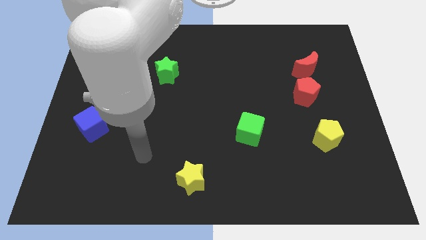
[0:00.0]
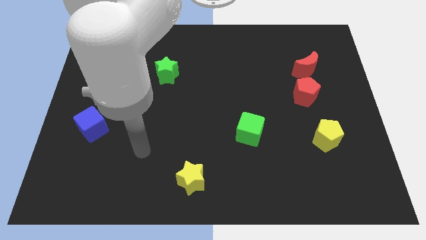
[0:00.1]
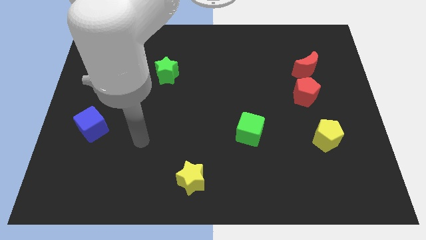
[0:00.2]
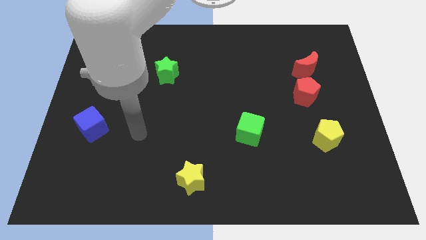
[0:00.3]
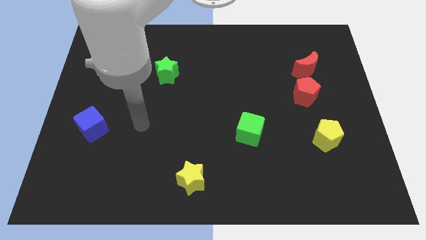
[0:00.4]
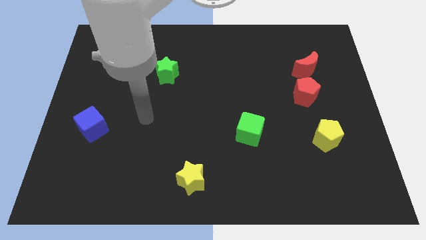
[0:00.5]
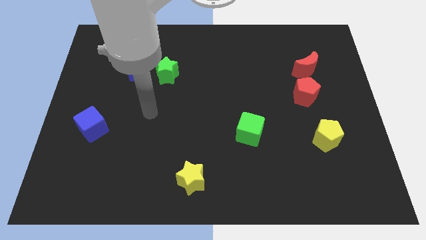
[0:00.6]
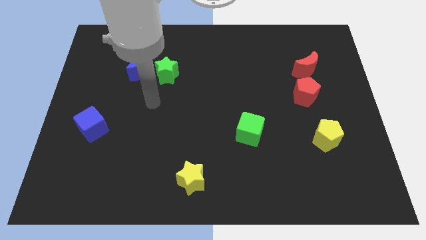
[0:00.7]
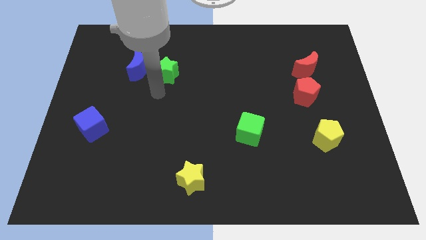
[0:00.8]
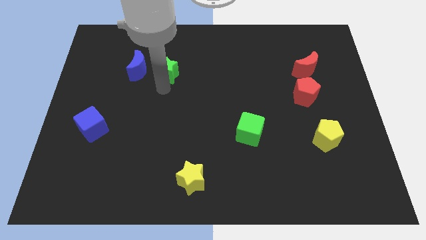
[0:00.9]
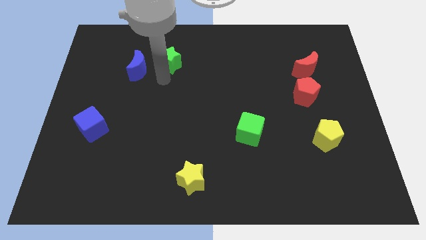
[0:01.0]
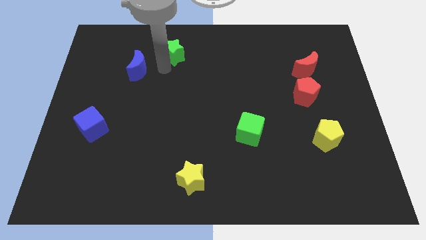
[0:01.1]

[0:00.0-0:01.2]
separate the blue moon from the green star

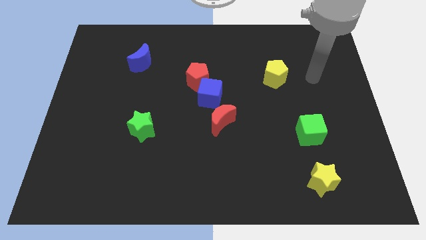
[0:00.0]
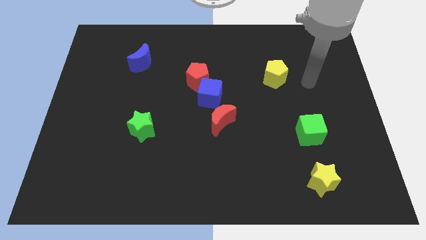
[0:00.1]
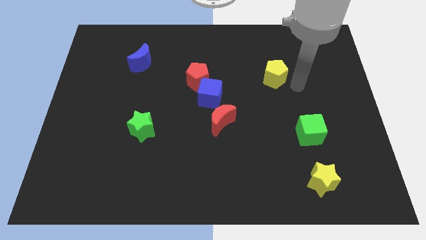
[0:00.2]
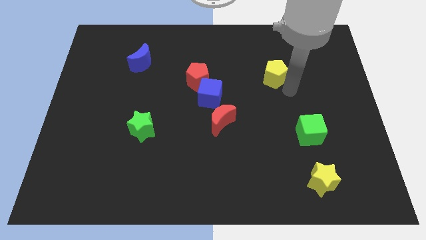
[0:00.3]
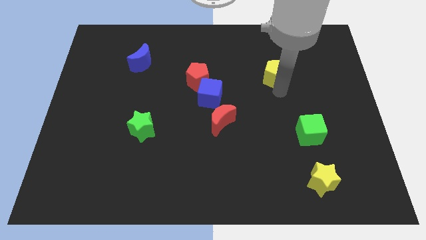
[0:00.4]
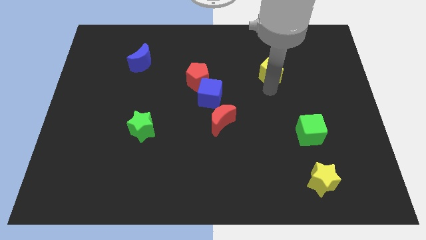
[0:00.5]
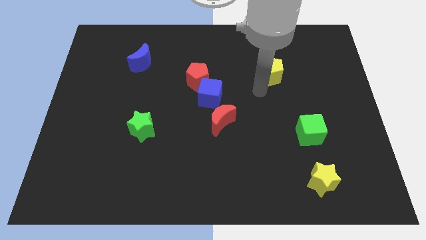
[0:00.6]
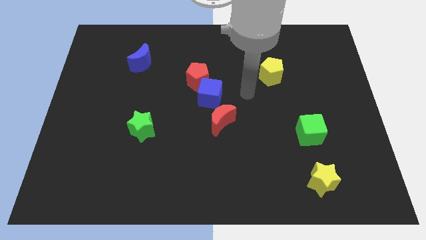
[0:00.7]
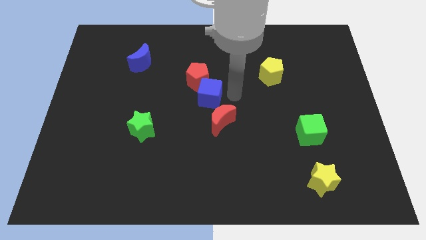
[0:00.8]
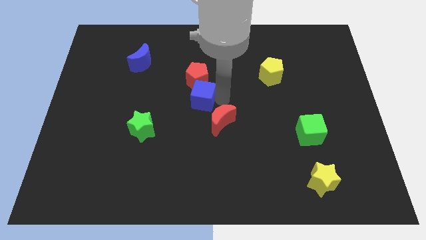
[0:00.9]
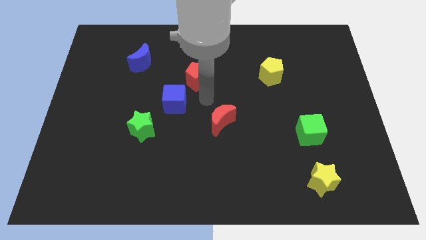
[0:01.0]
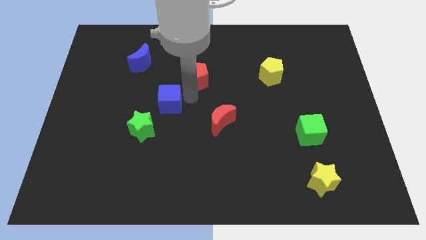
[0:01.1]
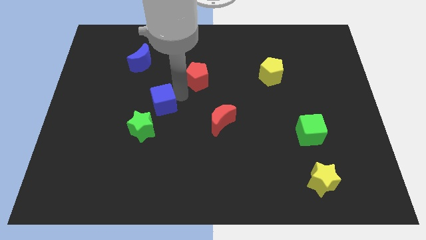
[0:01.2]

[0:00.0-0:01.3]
move the red pentagon away from the blue cube

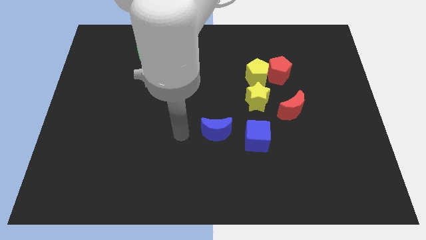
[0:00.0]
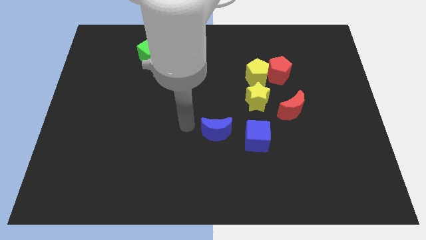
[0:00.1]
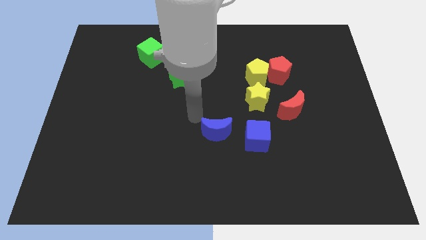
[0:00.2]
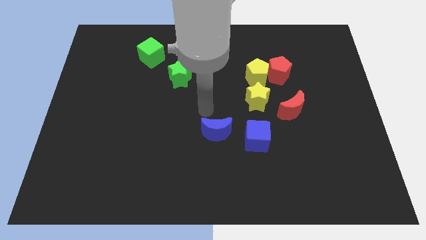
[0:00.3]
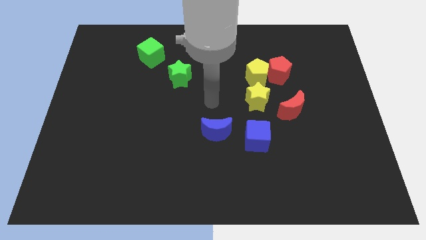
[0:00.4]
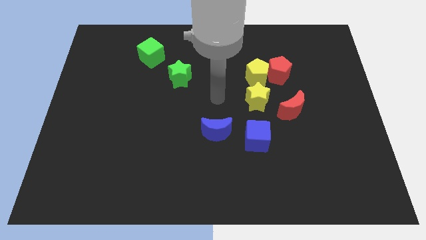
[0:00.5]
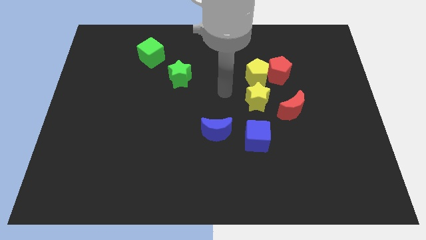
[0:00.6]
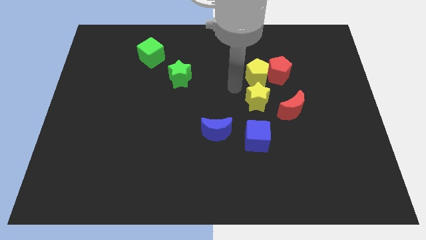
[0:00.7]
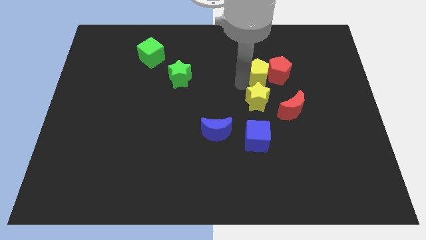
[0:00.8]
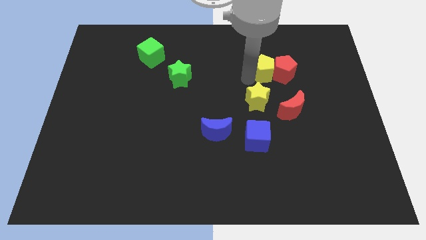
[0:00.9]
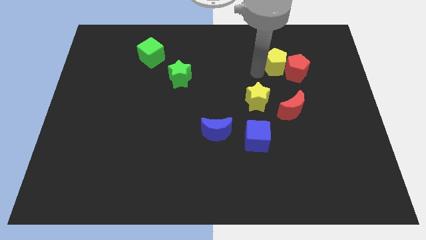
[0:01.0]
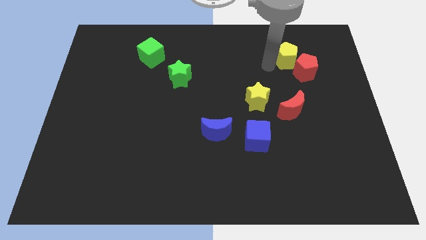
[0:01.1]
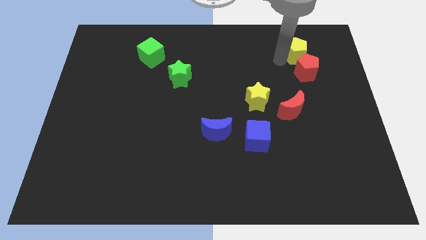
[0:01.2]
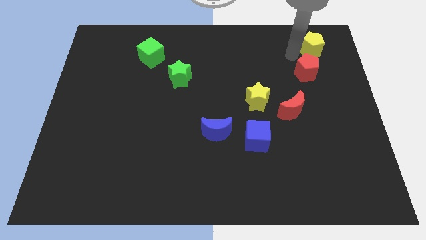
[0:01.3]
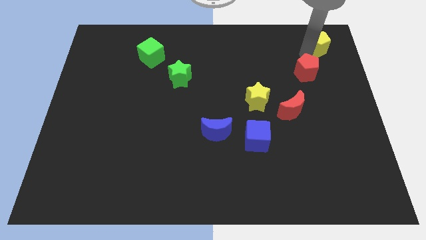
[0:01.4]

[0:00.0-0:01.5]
separate the red pentagon from the yellow pentagon

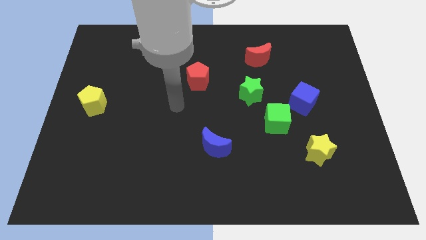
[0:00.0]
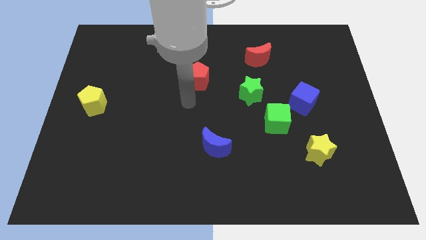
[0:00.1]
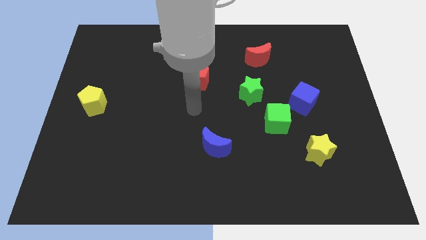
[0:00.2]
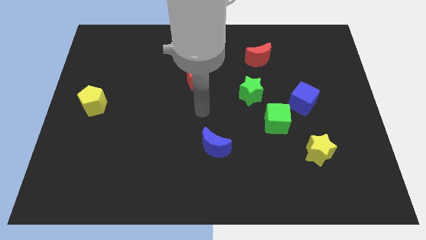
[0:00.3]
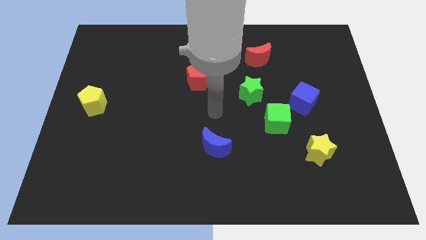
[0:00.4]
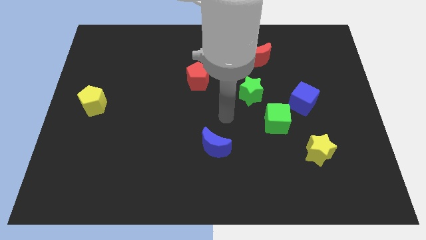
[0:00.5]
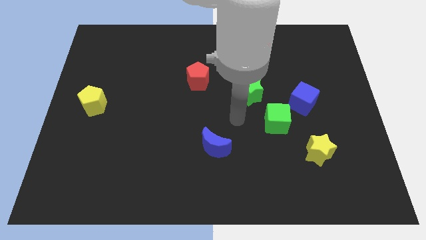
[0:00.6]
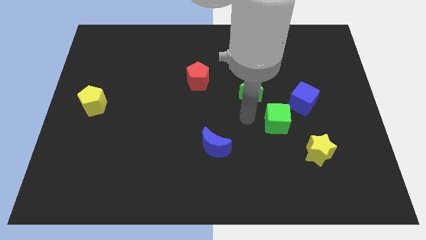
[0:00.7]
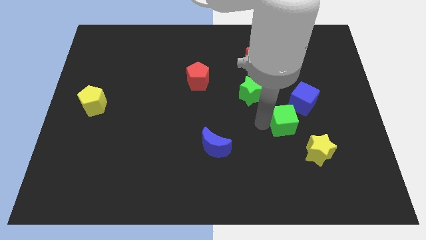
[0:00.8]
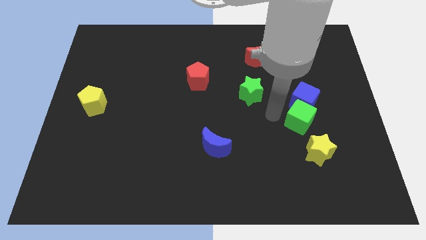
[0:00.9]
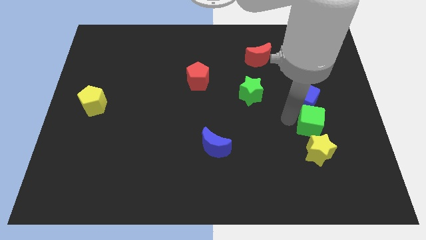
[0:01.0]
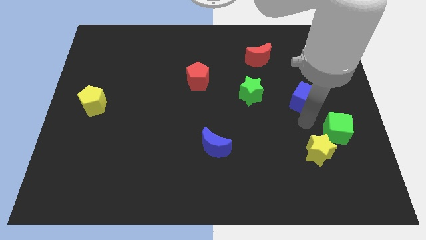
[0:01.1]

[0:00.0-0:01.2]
pull the blue cube apart from the green cube

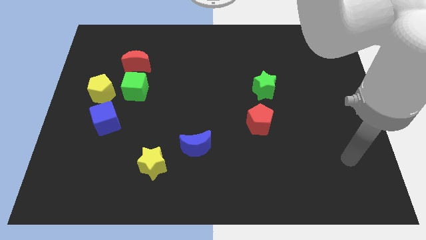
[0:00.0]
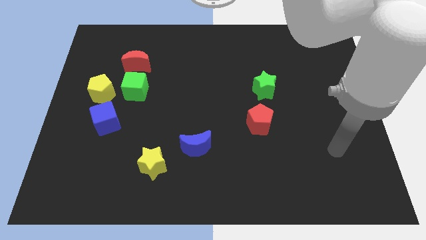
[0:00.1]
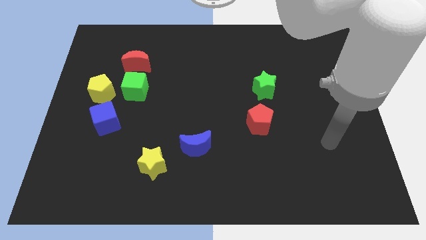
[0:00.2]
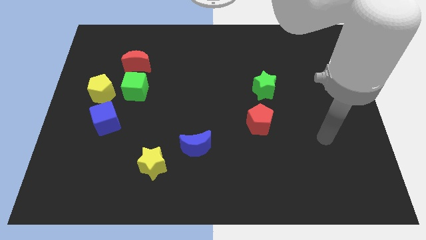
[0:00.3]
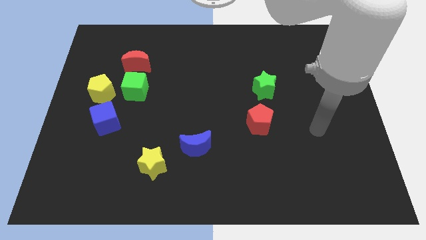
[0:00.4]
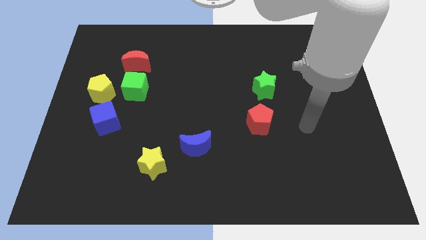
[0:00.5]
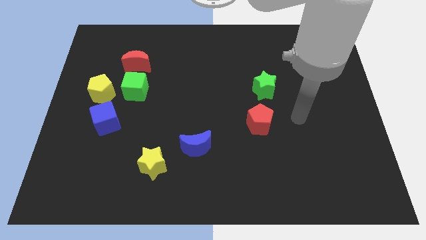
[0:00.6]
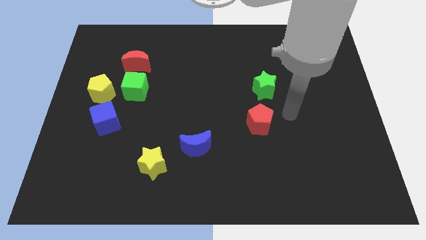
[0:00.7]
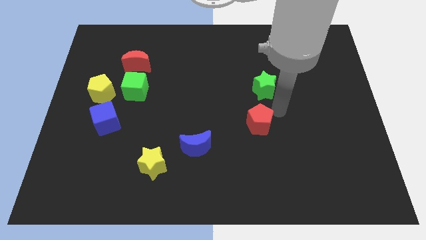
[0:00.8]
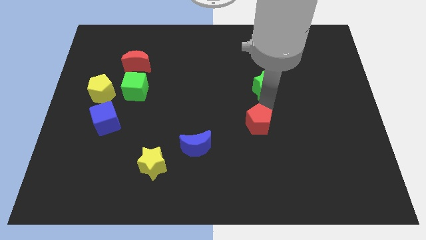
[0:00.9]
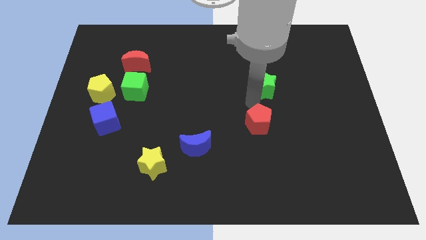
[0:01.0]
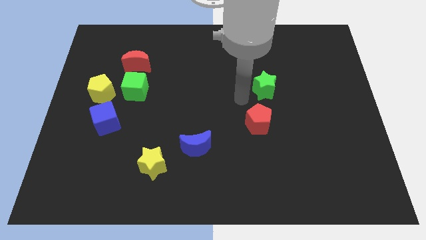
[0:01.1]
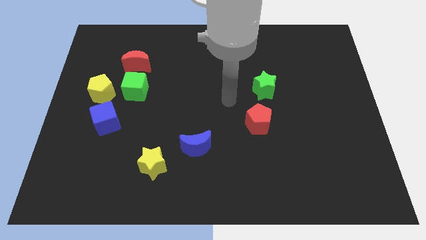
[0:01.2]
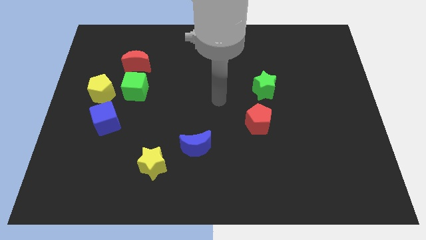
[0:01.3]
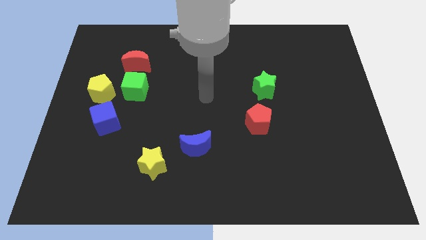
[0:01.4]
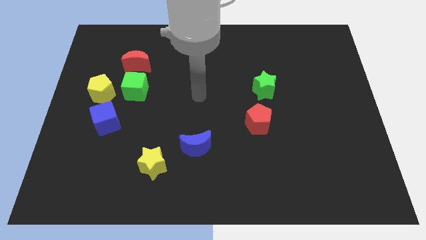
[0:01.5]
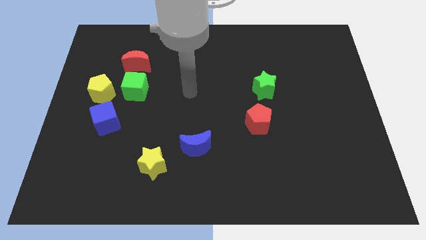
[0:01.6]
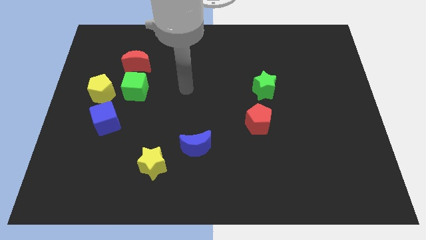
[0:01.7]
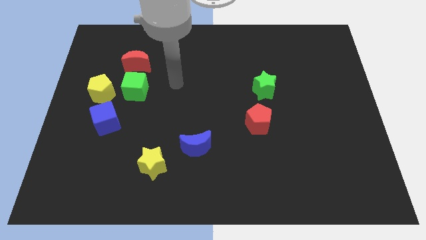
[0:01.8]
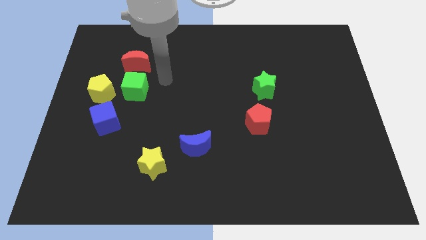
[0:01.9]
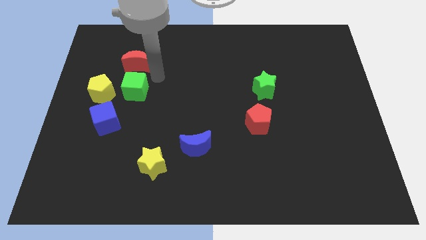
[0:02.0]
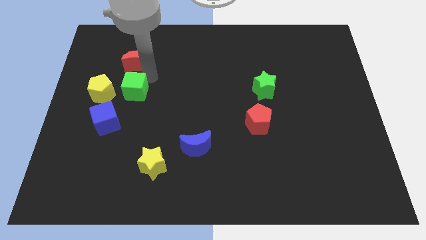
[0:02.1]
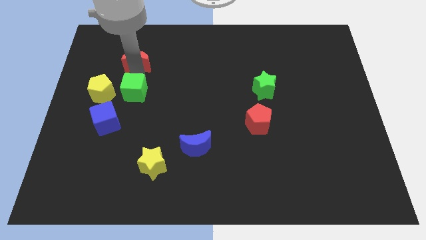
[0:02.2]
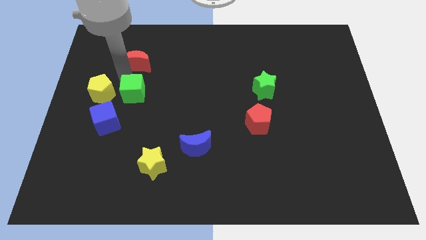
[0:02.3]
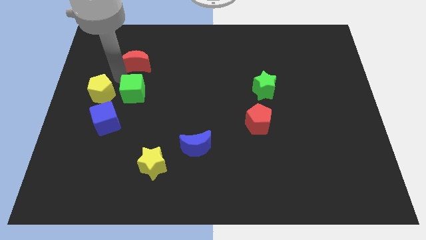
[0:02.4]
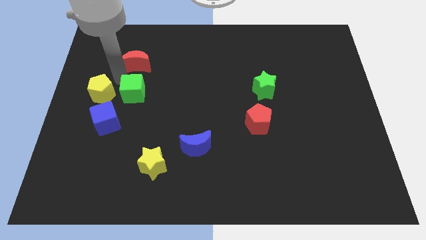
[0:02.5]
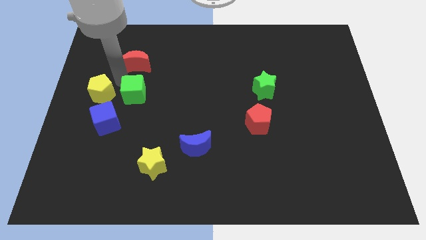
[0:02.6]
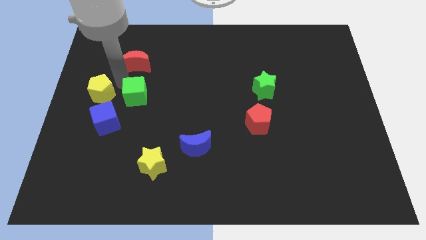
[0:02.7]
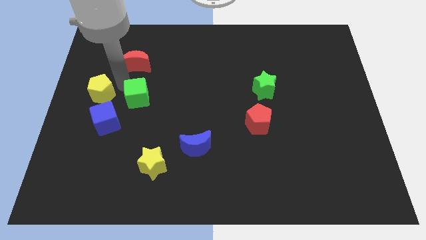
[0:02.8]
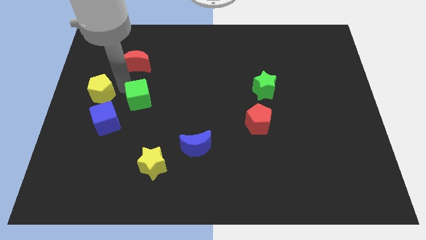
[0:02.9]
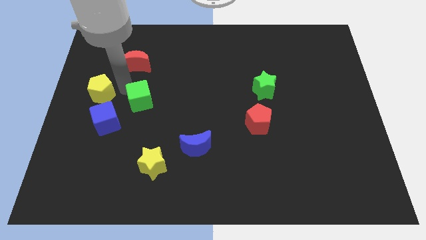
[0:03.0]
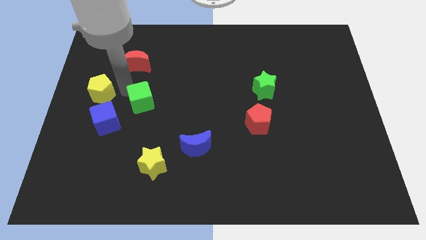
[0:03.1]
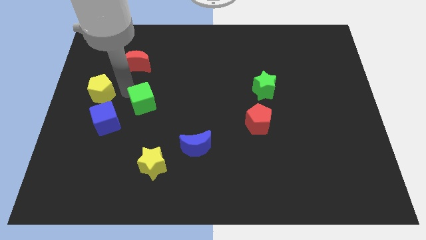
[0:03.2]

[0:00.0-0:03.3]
pull the green cube apart from the yellow pentagon and red moon

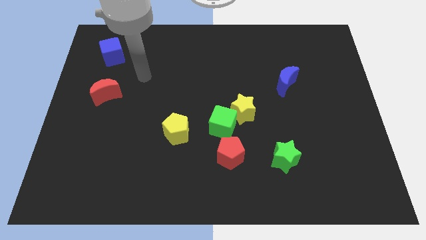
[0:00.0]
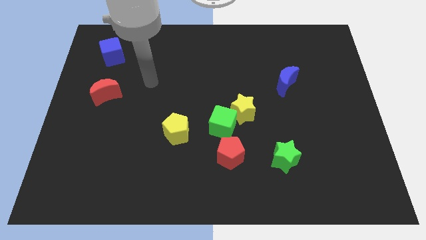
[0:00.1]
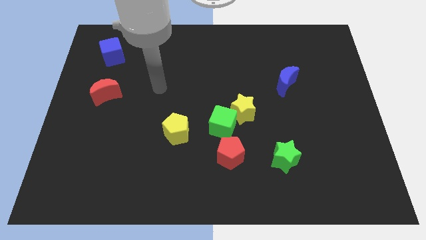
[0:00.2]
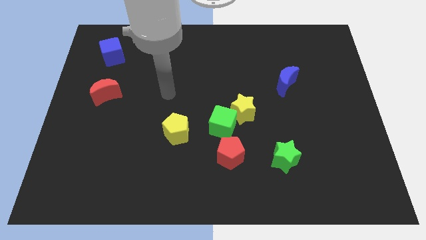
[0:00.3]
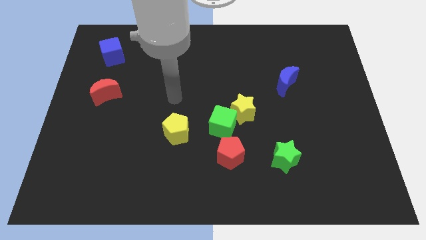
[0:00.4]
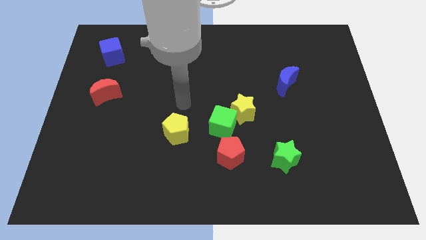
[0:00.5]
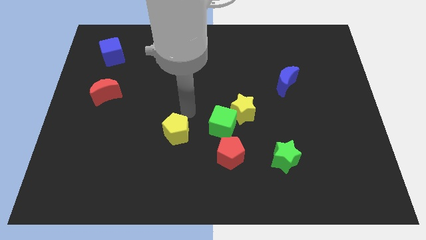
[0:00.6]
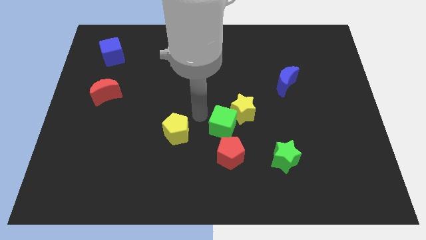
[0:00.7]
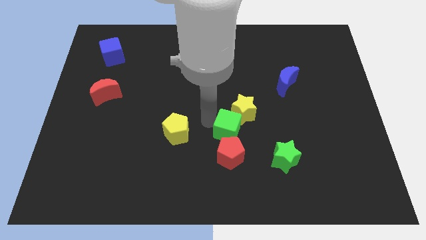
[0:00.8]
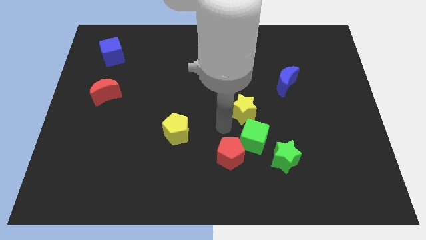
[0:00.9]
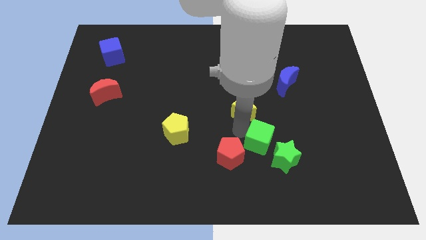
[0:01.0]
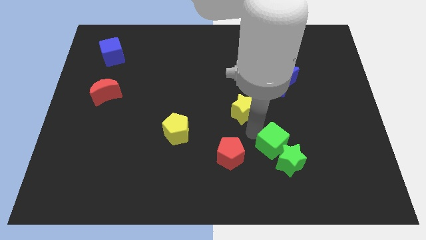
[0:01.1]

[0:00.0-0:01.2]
move the yellow star away from the green cube
